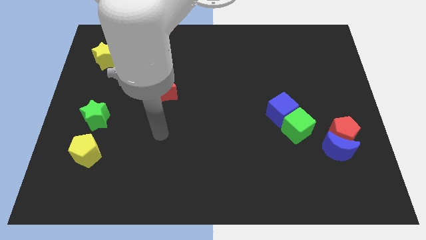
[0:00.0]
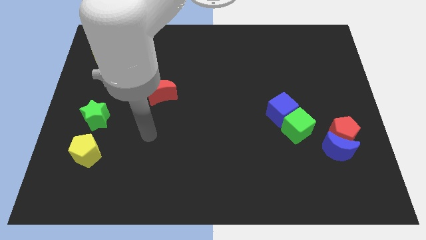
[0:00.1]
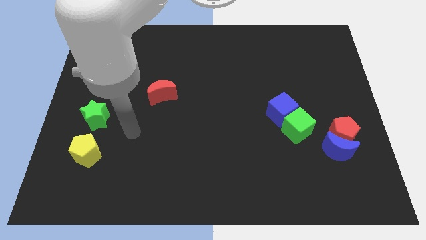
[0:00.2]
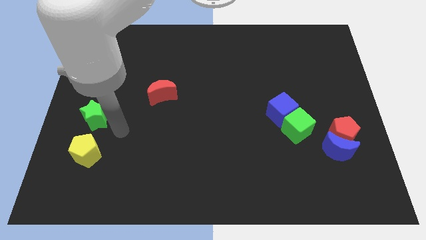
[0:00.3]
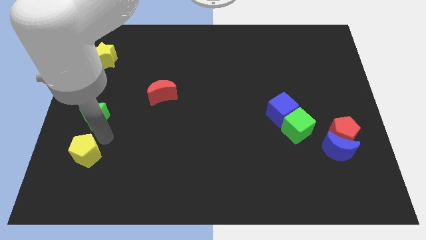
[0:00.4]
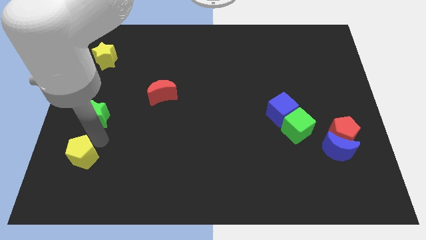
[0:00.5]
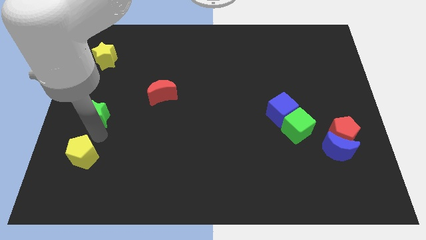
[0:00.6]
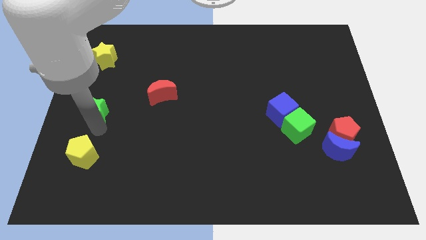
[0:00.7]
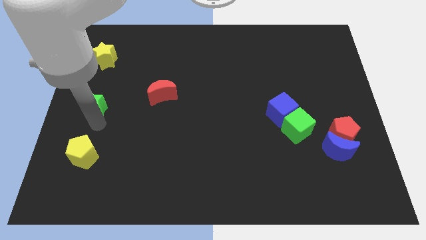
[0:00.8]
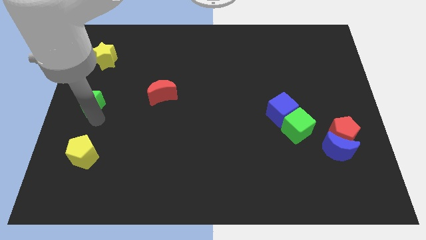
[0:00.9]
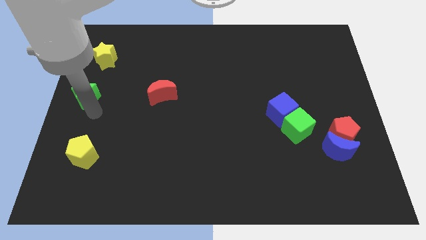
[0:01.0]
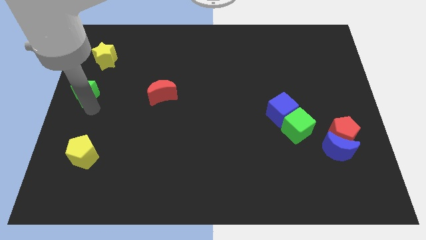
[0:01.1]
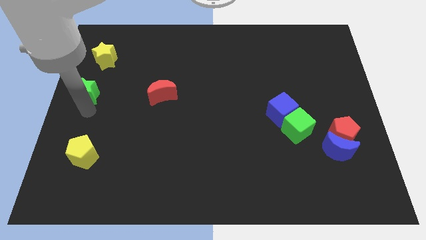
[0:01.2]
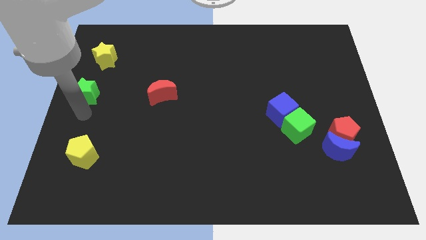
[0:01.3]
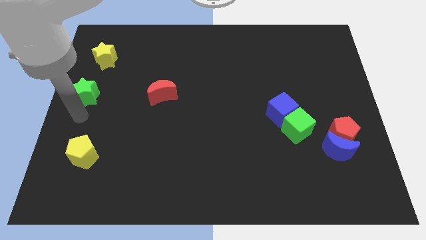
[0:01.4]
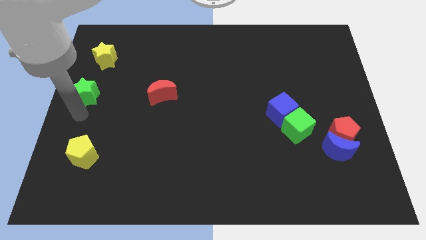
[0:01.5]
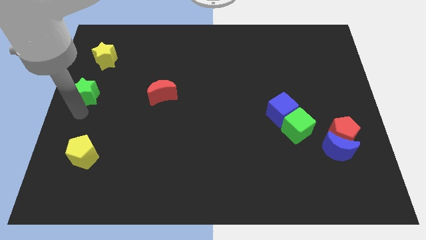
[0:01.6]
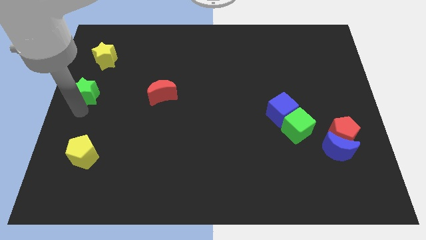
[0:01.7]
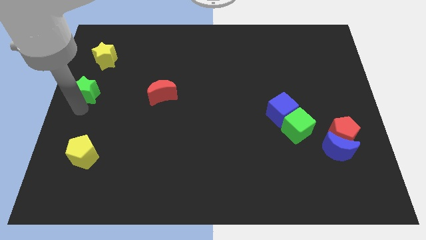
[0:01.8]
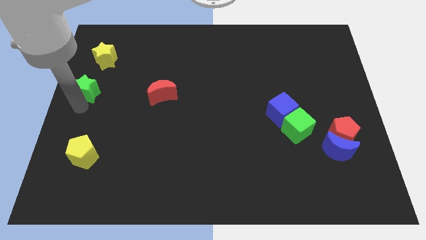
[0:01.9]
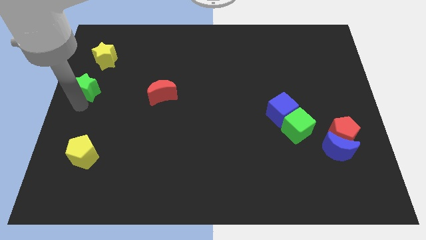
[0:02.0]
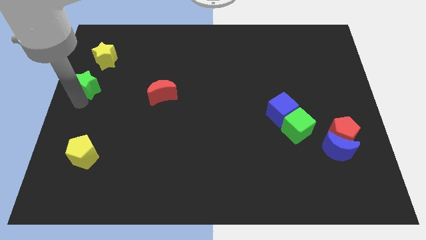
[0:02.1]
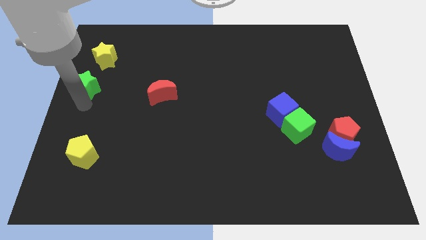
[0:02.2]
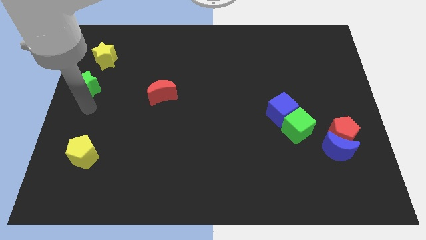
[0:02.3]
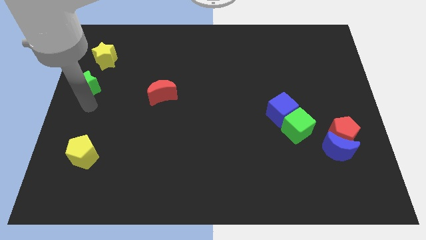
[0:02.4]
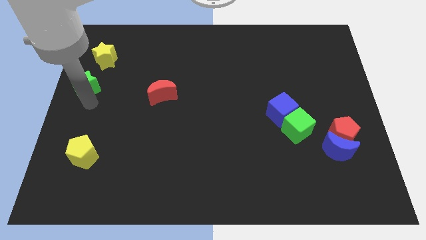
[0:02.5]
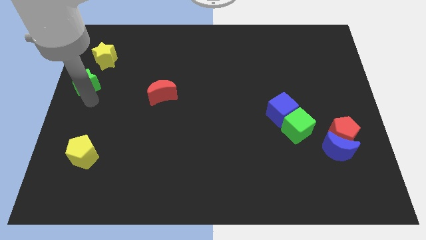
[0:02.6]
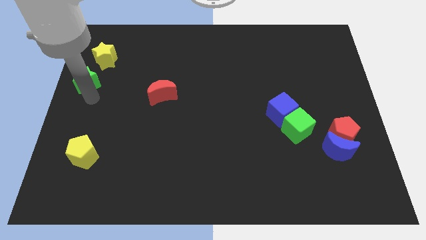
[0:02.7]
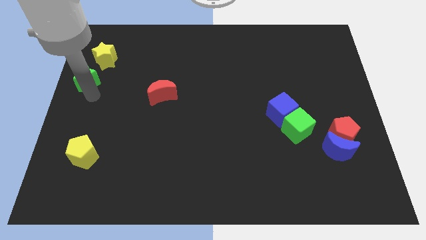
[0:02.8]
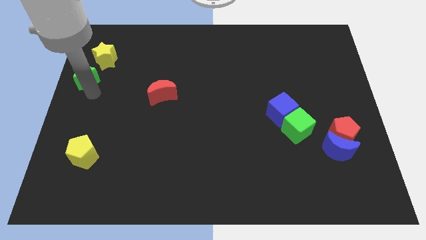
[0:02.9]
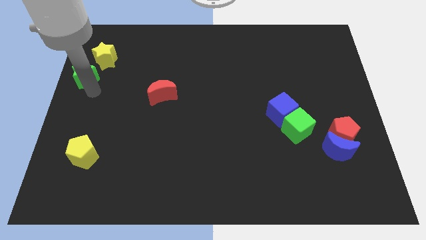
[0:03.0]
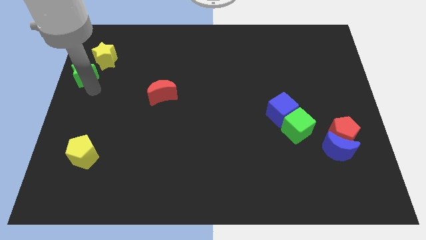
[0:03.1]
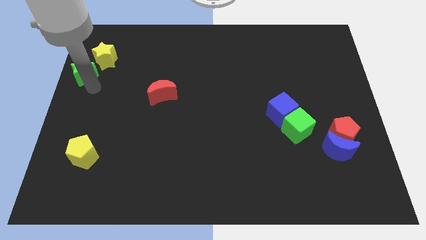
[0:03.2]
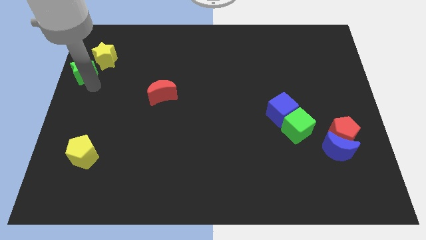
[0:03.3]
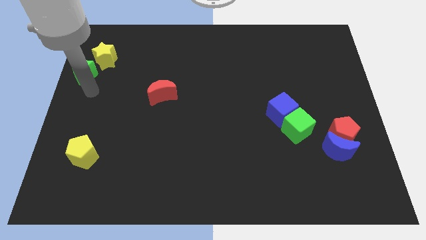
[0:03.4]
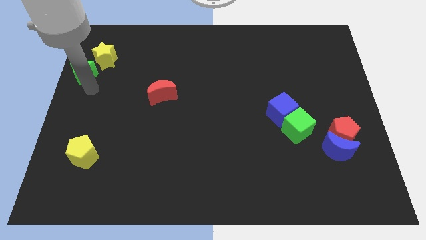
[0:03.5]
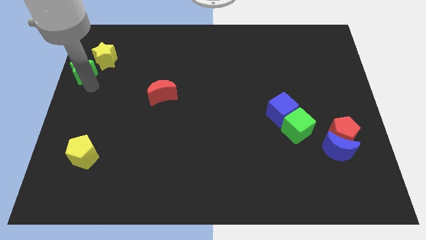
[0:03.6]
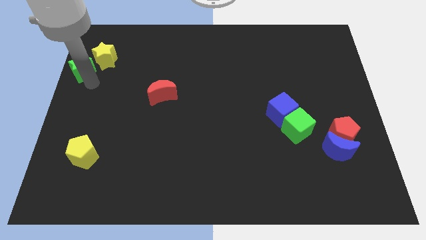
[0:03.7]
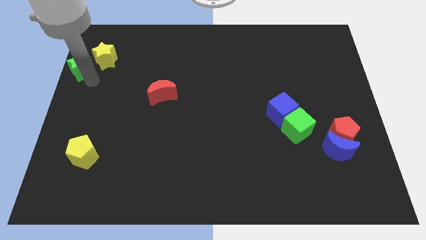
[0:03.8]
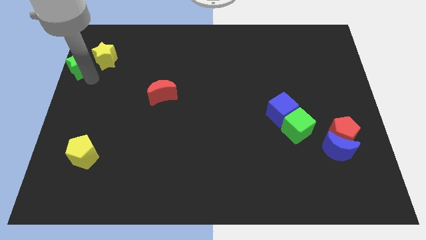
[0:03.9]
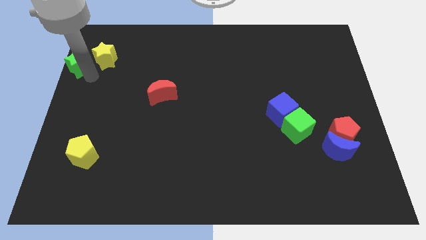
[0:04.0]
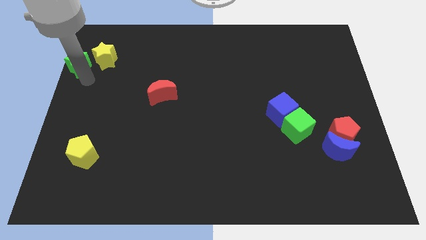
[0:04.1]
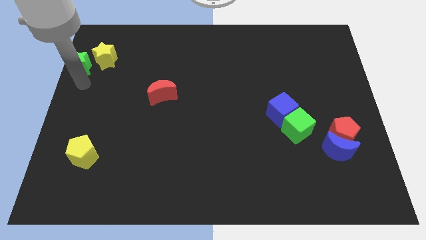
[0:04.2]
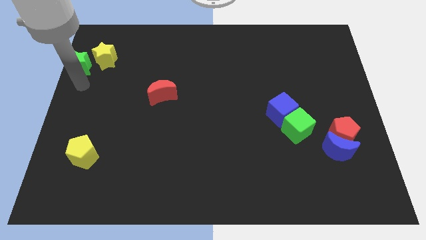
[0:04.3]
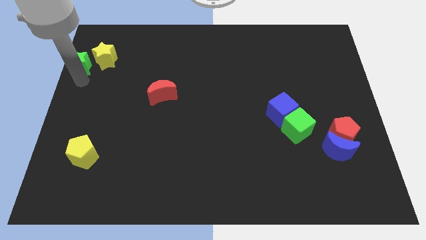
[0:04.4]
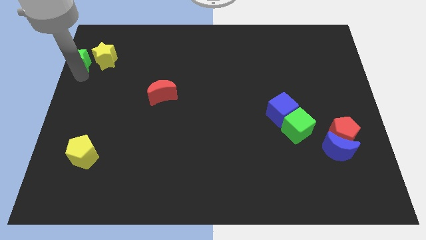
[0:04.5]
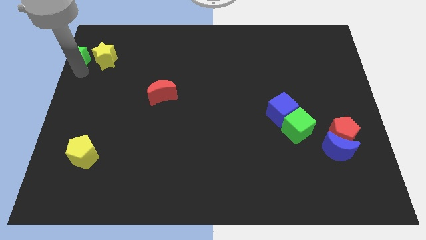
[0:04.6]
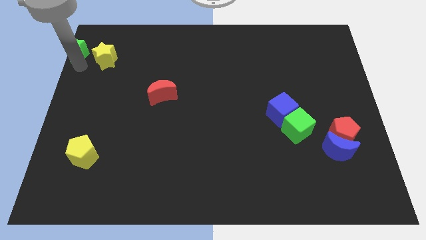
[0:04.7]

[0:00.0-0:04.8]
put the green star to the top left of the board

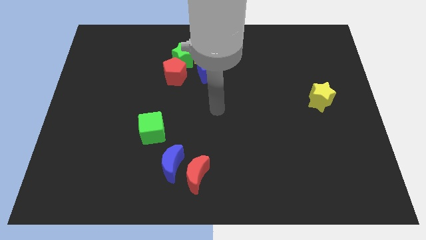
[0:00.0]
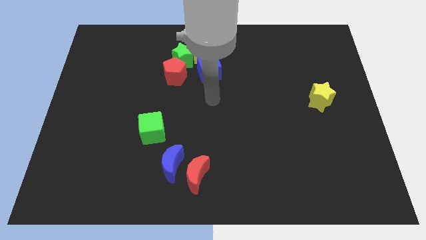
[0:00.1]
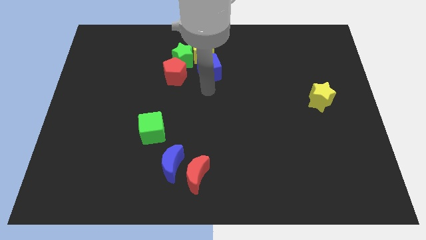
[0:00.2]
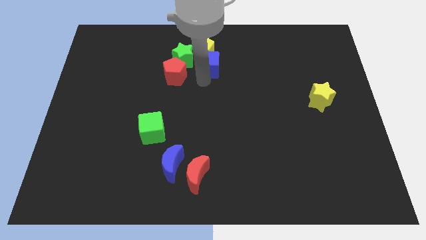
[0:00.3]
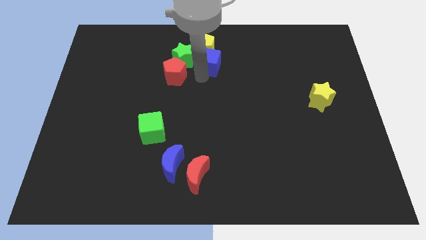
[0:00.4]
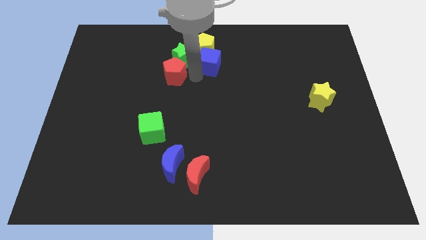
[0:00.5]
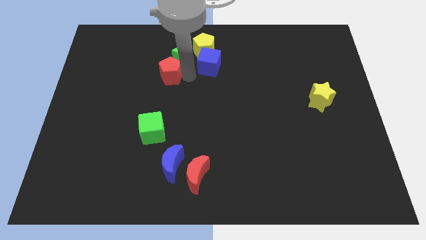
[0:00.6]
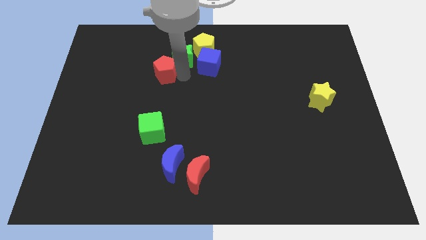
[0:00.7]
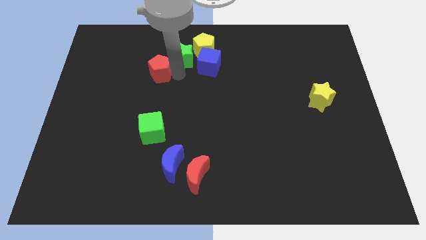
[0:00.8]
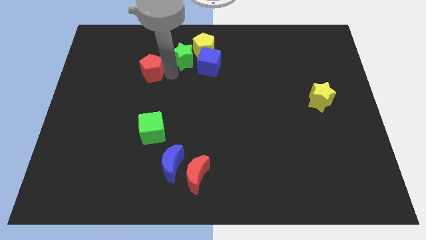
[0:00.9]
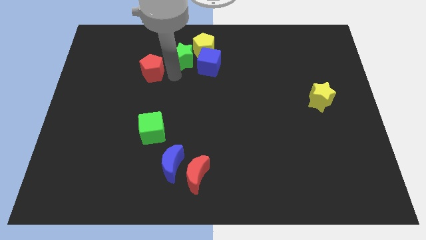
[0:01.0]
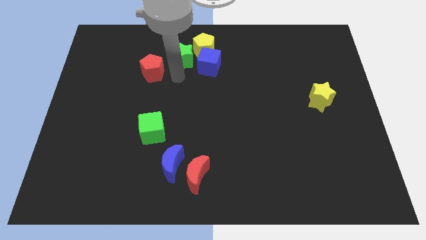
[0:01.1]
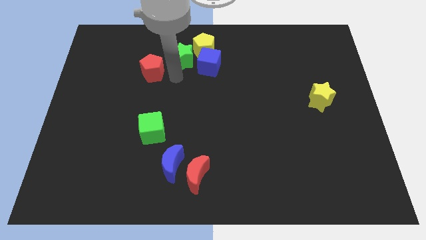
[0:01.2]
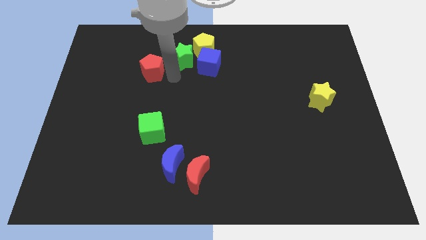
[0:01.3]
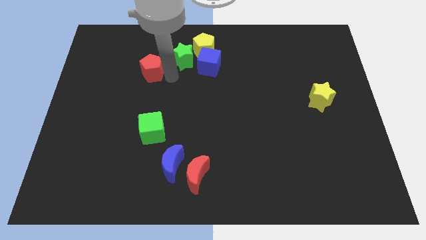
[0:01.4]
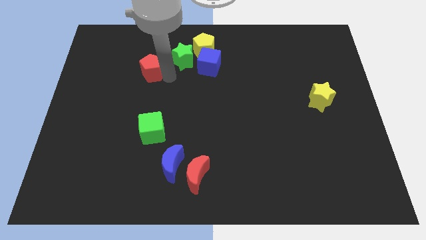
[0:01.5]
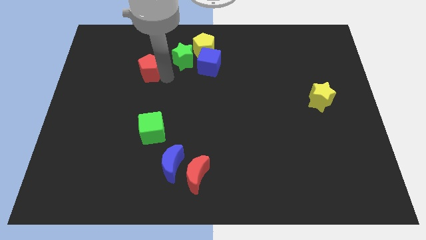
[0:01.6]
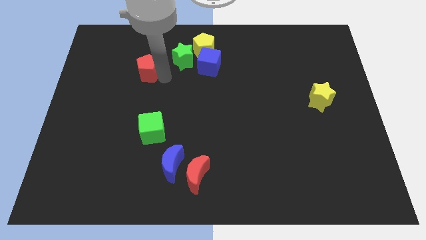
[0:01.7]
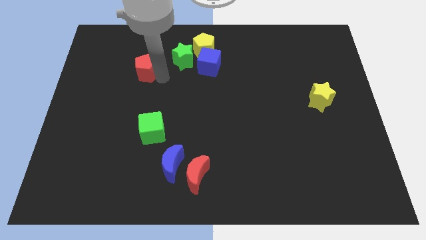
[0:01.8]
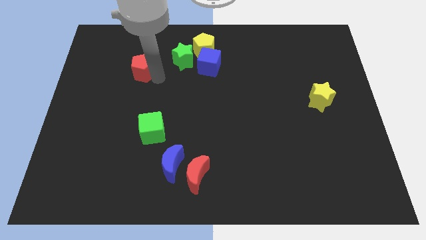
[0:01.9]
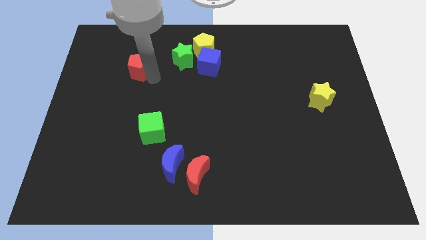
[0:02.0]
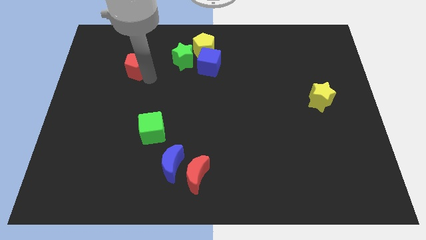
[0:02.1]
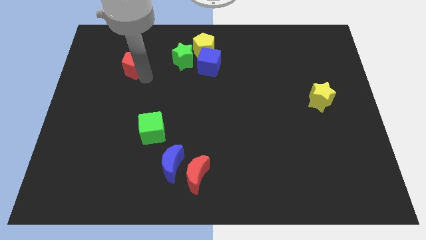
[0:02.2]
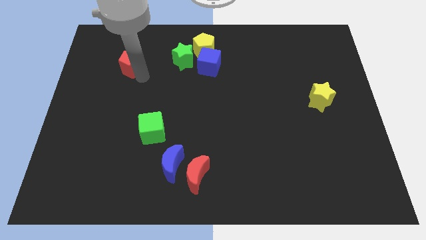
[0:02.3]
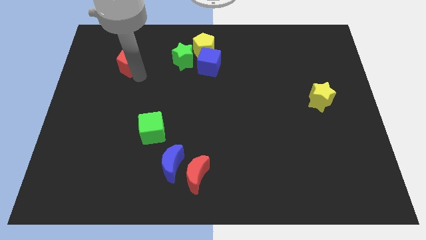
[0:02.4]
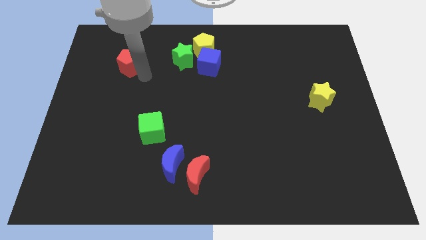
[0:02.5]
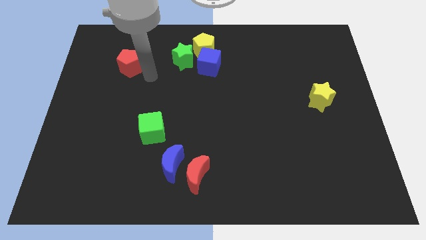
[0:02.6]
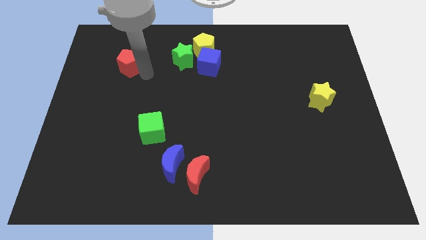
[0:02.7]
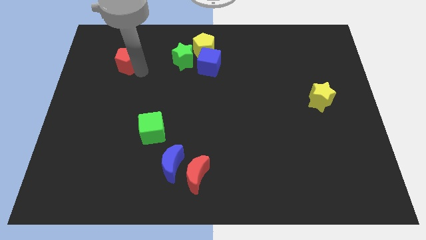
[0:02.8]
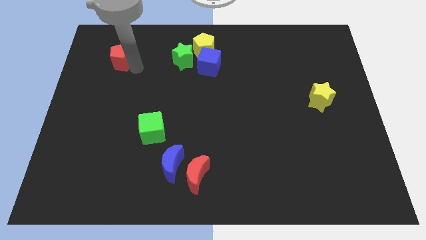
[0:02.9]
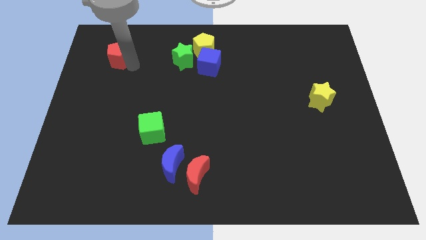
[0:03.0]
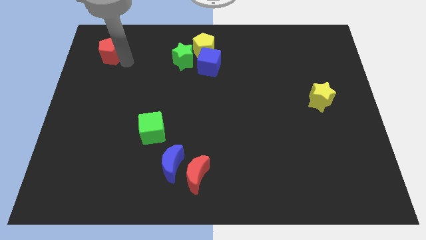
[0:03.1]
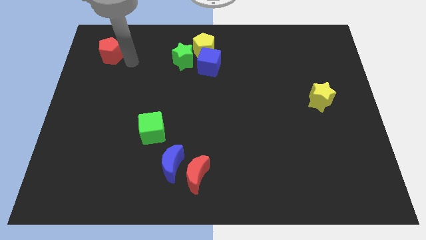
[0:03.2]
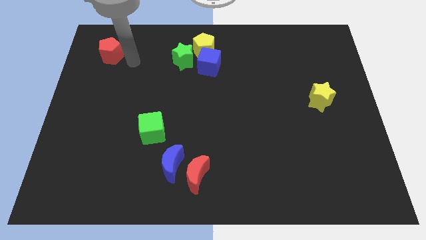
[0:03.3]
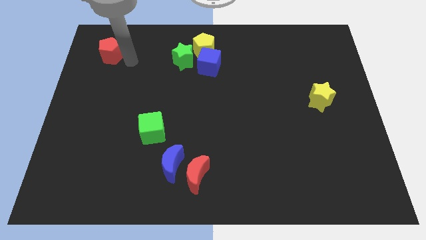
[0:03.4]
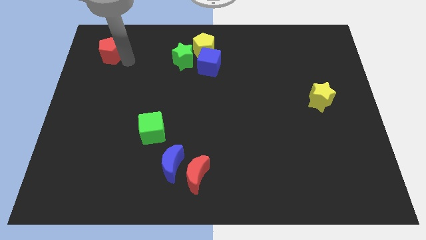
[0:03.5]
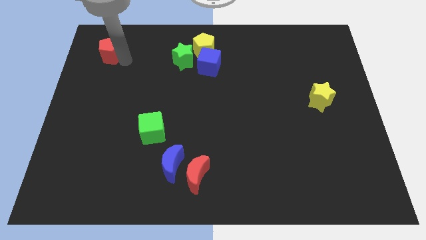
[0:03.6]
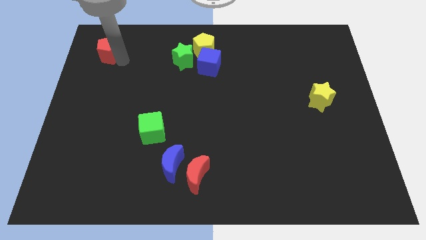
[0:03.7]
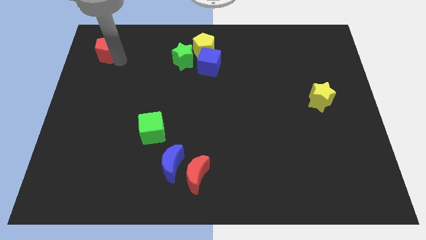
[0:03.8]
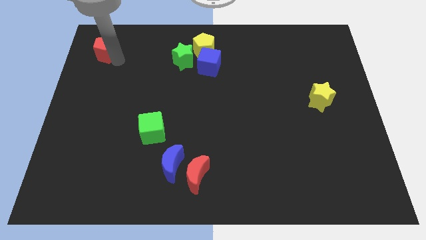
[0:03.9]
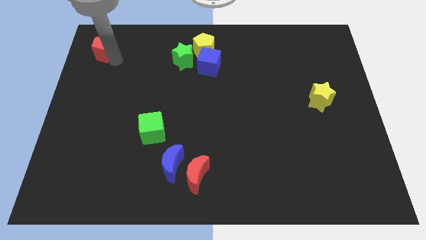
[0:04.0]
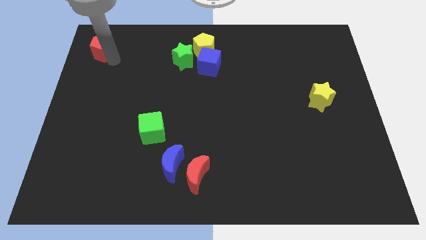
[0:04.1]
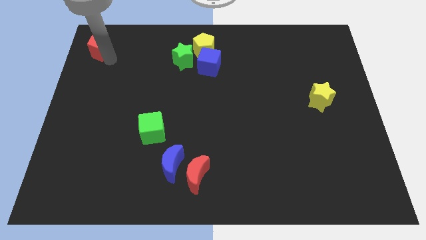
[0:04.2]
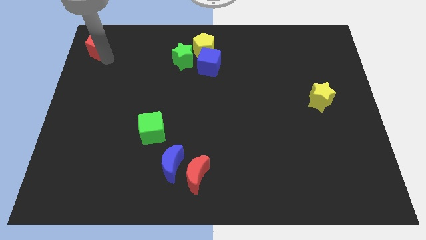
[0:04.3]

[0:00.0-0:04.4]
slide the red pentagon to the top left corner
